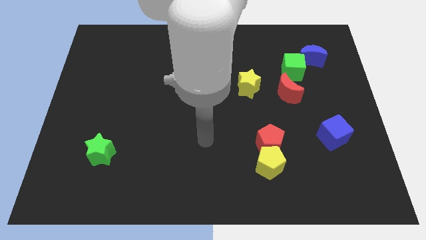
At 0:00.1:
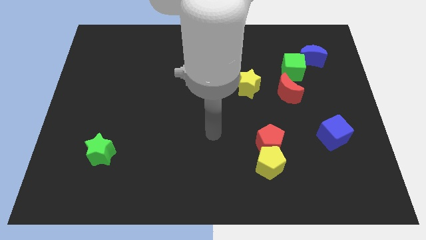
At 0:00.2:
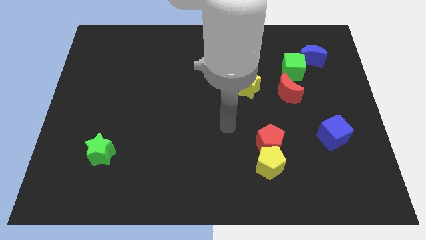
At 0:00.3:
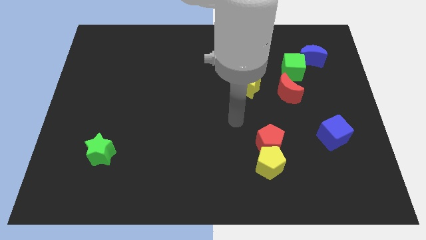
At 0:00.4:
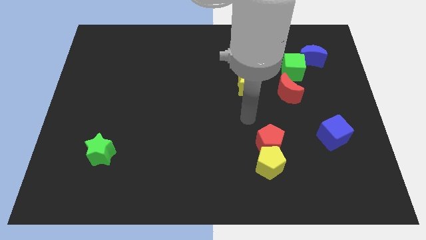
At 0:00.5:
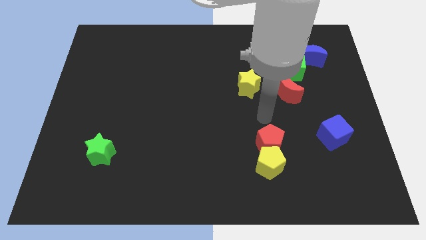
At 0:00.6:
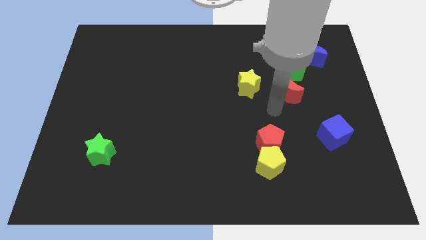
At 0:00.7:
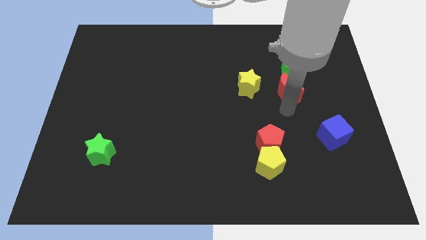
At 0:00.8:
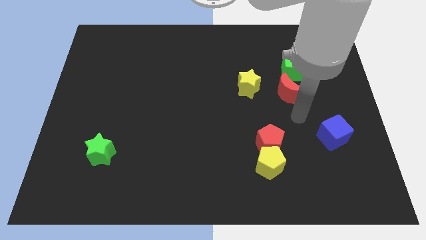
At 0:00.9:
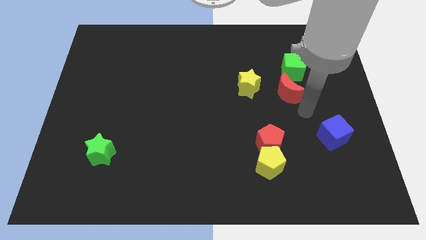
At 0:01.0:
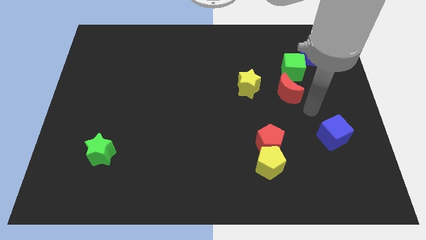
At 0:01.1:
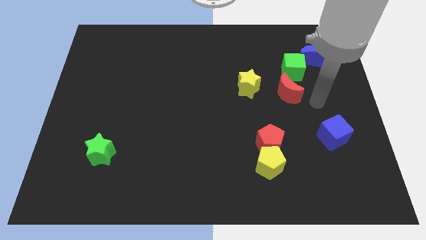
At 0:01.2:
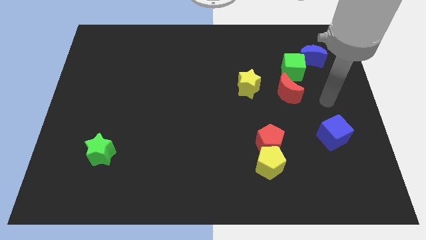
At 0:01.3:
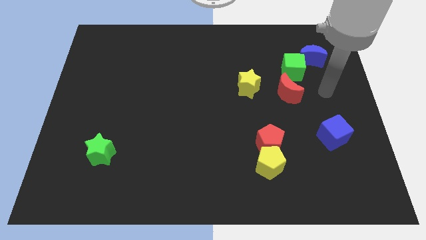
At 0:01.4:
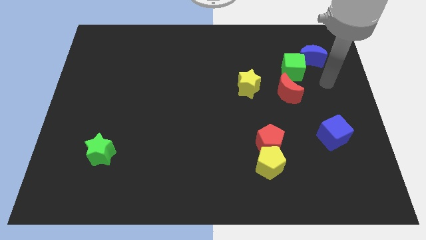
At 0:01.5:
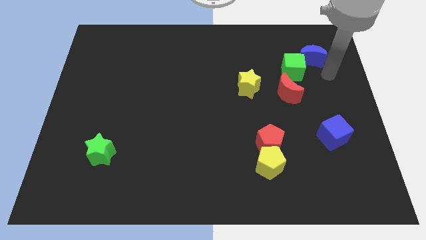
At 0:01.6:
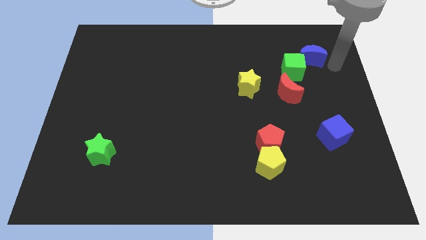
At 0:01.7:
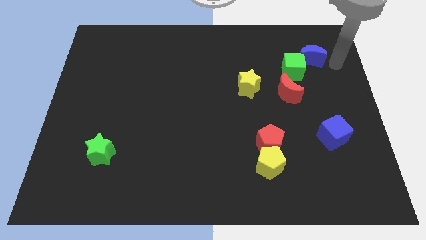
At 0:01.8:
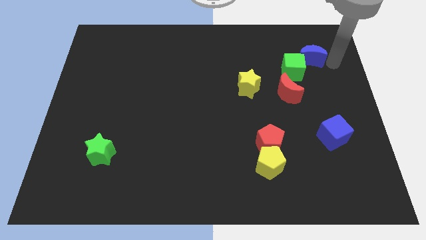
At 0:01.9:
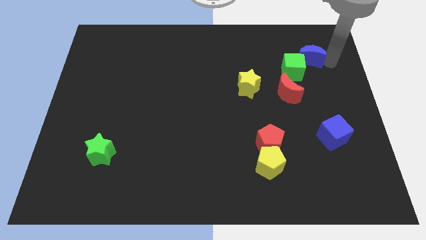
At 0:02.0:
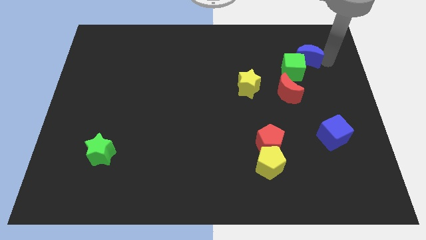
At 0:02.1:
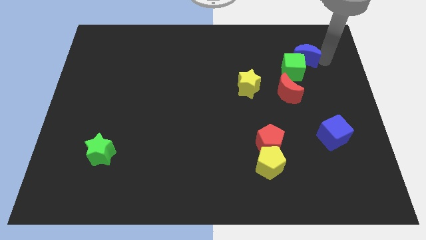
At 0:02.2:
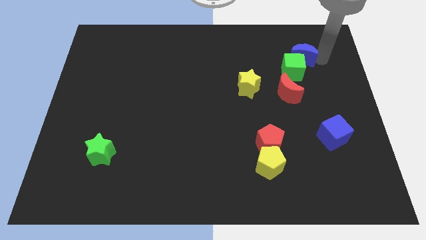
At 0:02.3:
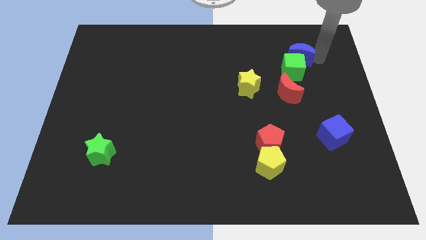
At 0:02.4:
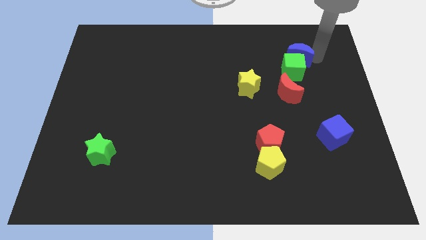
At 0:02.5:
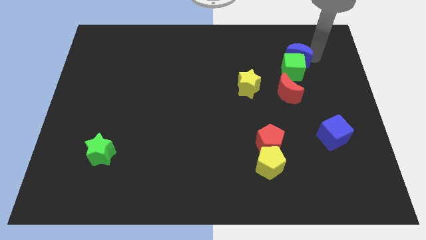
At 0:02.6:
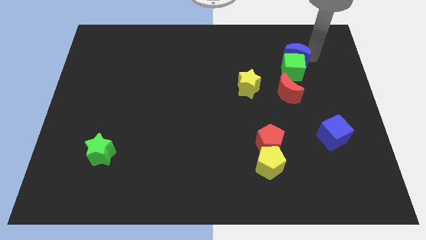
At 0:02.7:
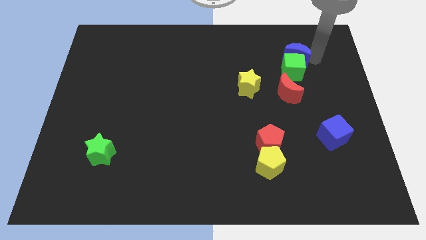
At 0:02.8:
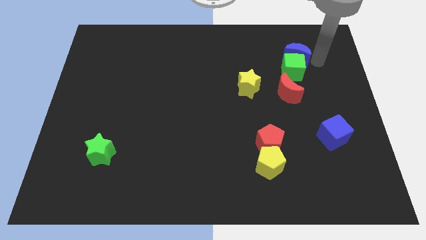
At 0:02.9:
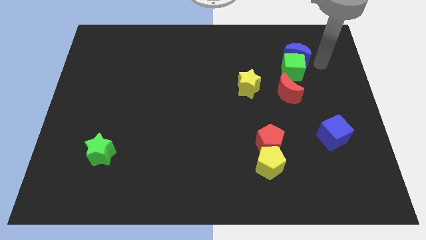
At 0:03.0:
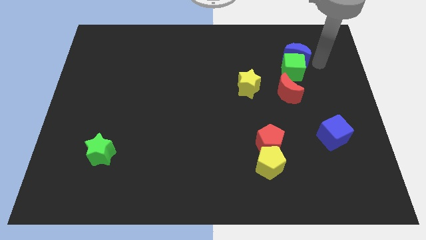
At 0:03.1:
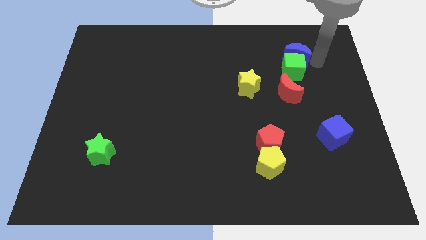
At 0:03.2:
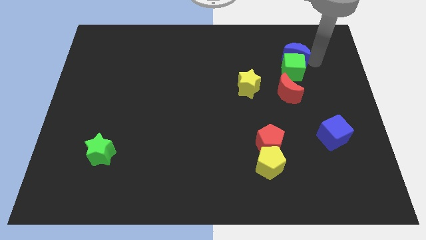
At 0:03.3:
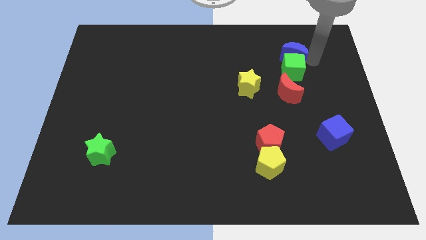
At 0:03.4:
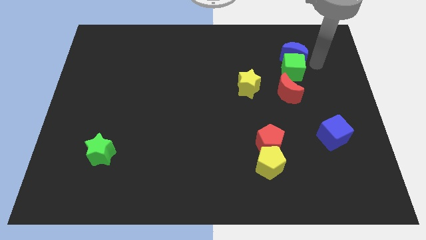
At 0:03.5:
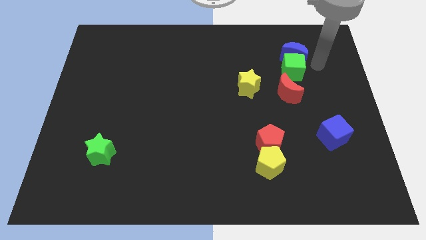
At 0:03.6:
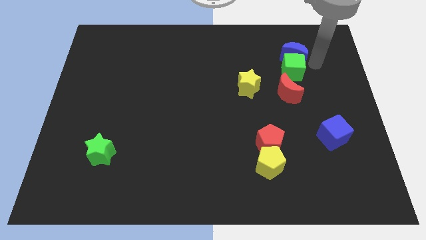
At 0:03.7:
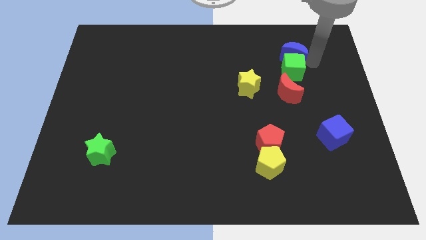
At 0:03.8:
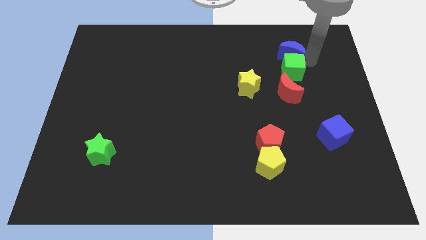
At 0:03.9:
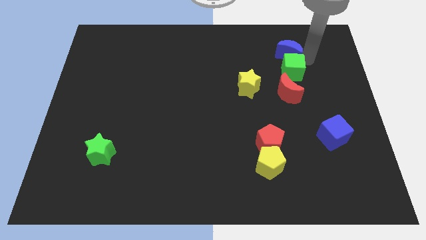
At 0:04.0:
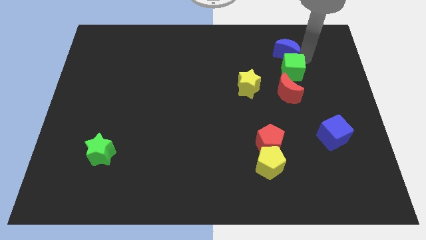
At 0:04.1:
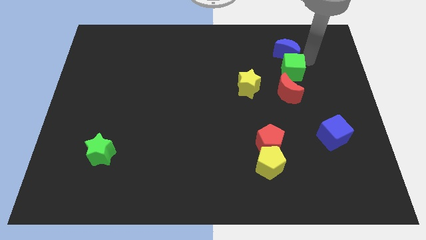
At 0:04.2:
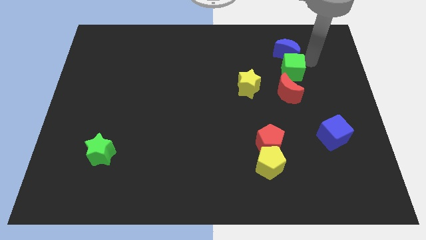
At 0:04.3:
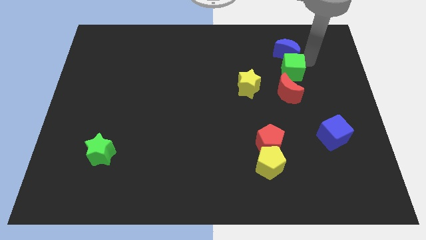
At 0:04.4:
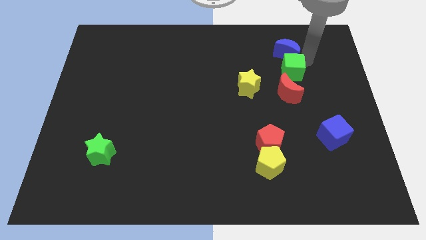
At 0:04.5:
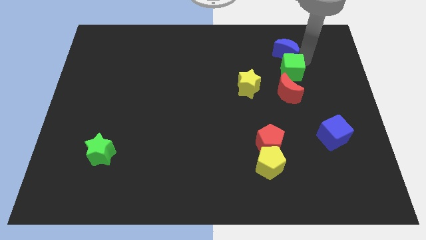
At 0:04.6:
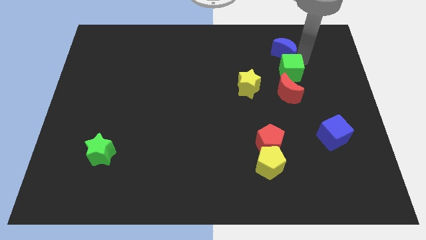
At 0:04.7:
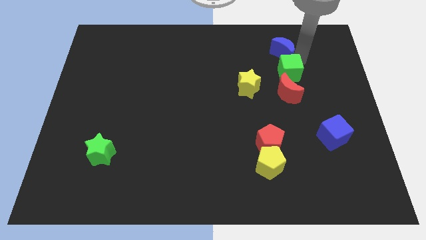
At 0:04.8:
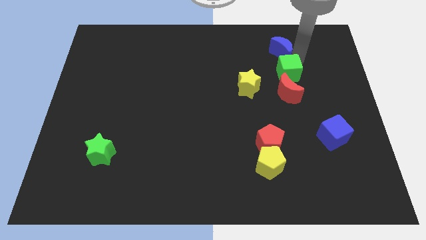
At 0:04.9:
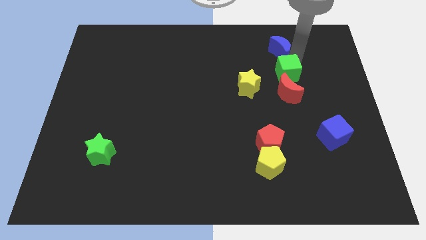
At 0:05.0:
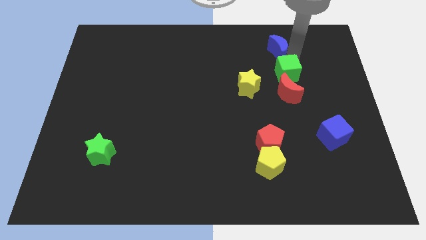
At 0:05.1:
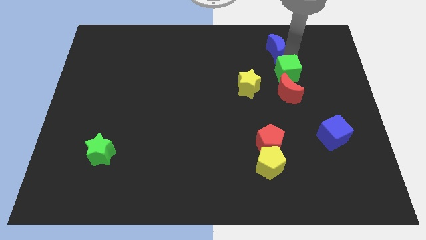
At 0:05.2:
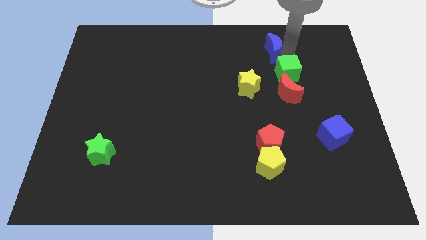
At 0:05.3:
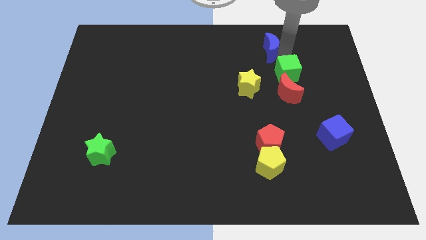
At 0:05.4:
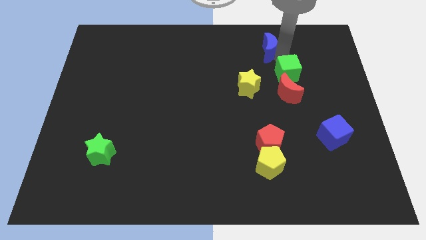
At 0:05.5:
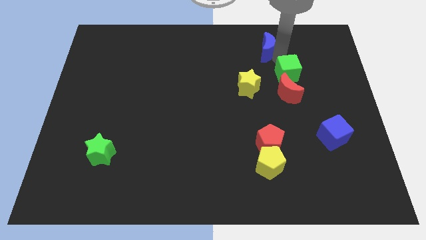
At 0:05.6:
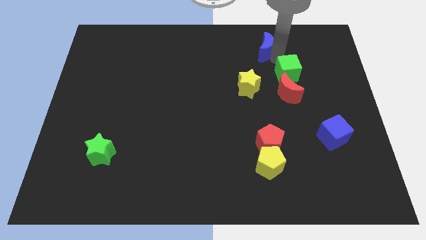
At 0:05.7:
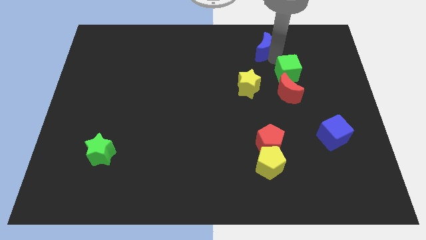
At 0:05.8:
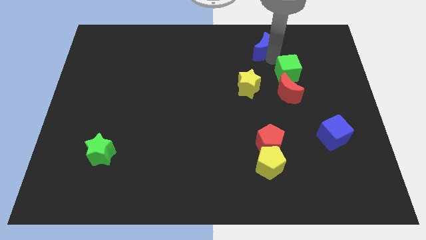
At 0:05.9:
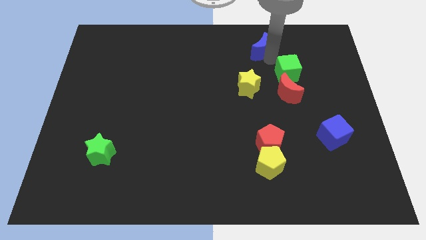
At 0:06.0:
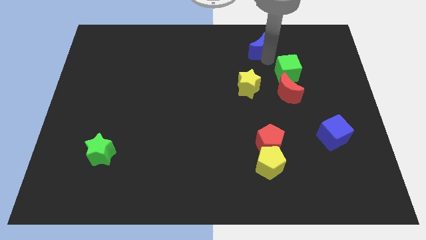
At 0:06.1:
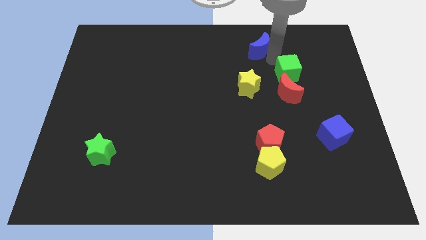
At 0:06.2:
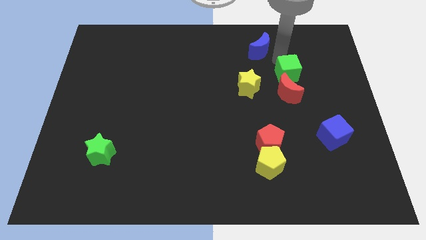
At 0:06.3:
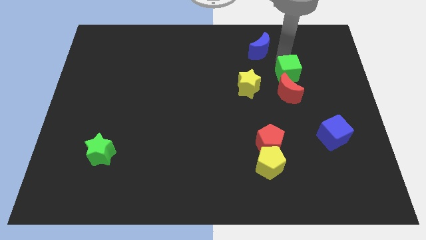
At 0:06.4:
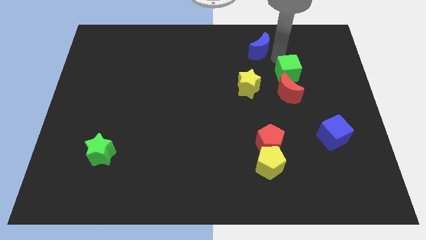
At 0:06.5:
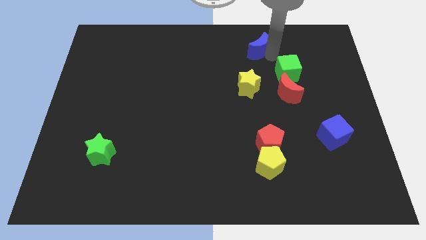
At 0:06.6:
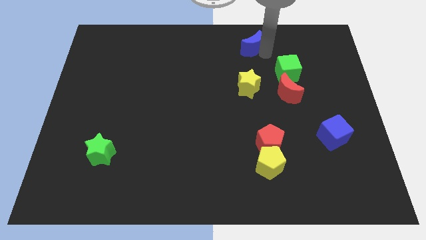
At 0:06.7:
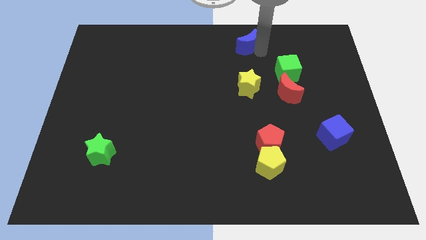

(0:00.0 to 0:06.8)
put the blue moon to the top
